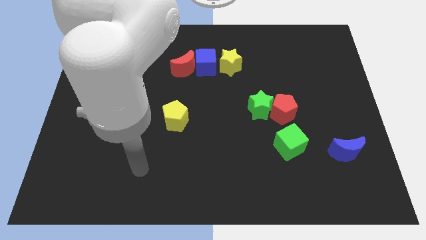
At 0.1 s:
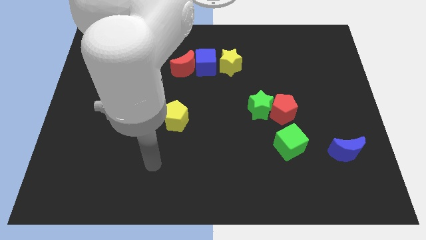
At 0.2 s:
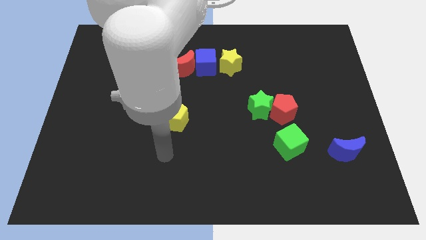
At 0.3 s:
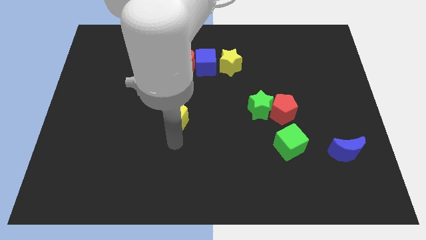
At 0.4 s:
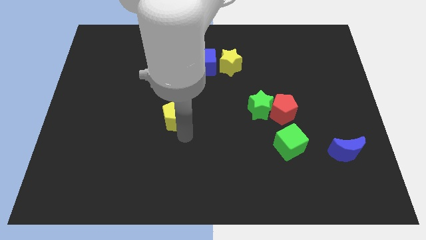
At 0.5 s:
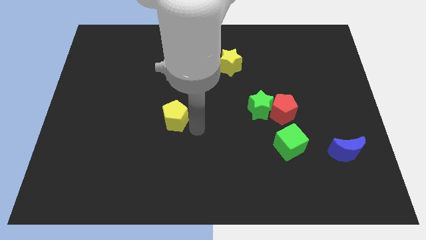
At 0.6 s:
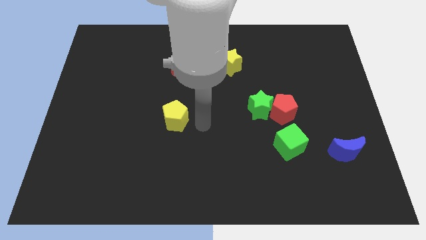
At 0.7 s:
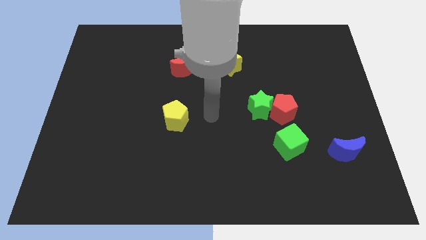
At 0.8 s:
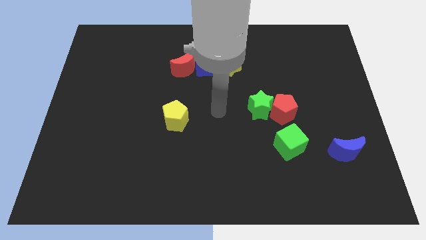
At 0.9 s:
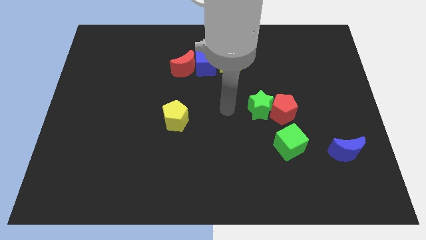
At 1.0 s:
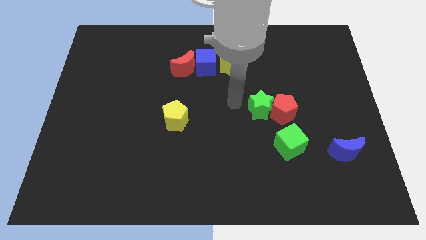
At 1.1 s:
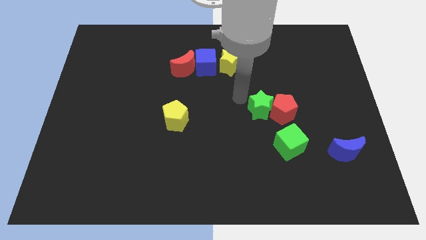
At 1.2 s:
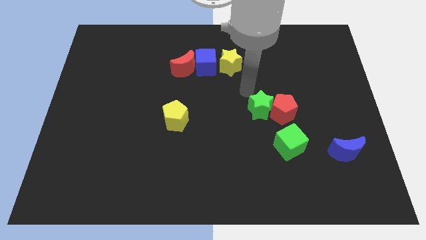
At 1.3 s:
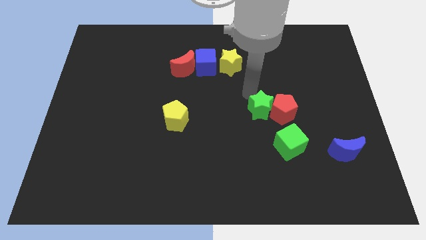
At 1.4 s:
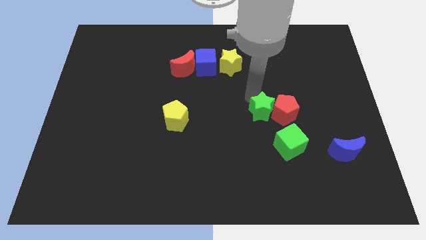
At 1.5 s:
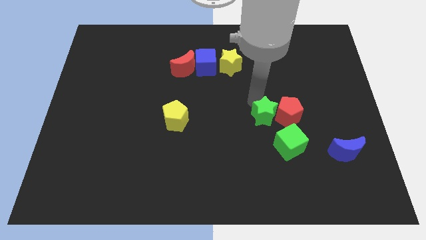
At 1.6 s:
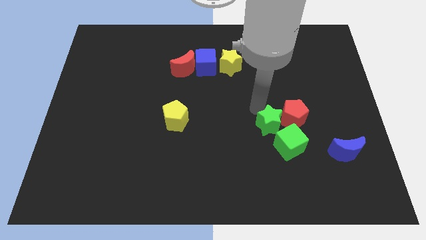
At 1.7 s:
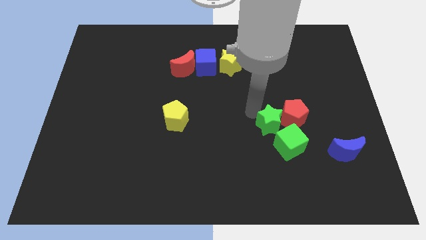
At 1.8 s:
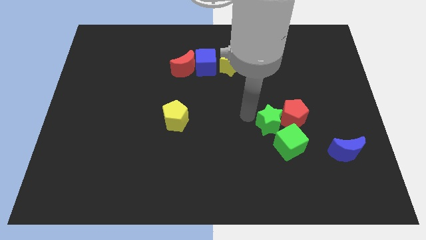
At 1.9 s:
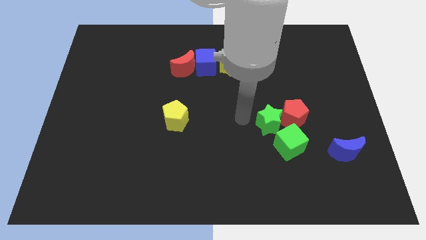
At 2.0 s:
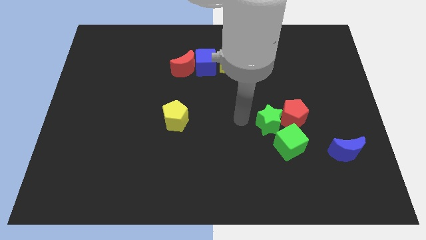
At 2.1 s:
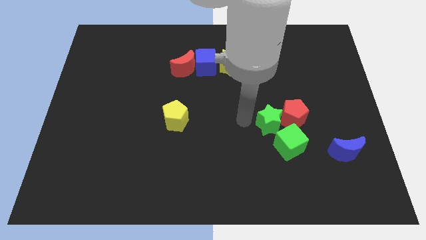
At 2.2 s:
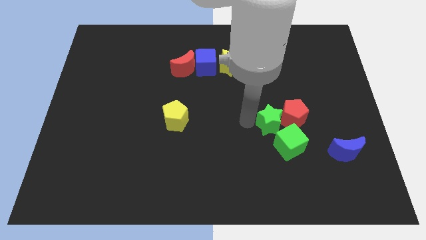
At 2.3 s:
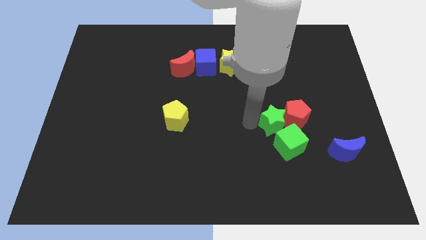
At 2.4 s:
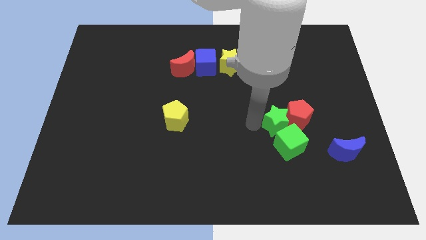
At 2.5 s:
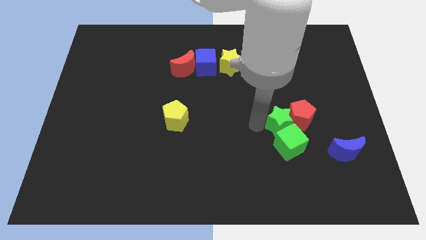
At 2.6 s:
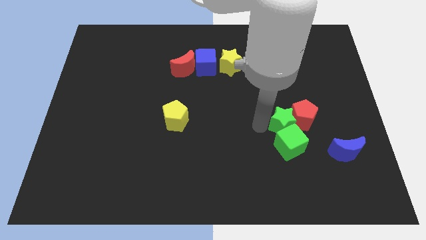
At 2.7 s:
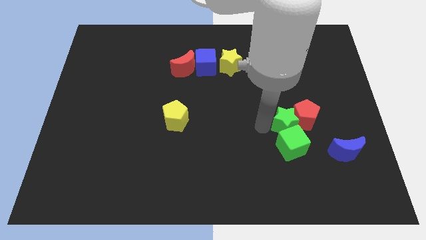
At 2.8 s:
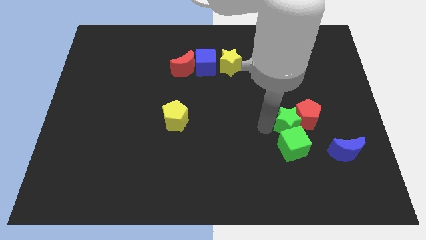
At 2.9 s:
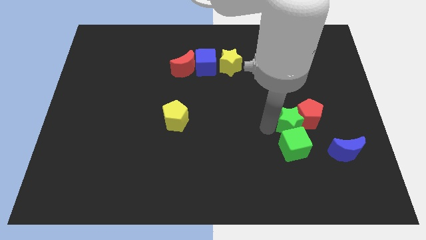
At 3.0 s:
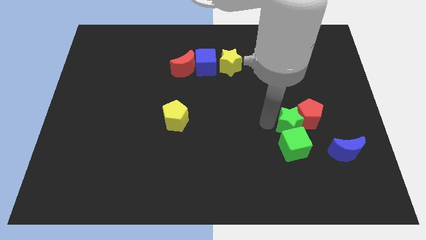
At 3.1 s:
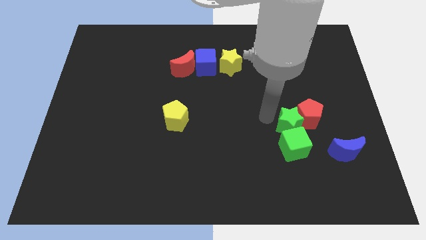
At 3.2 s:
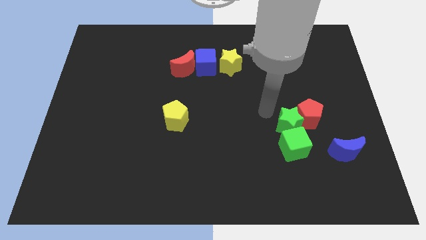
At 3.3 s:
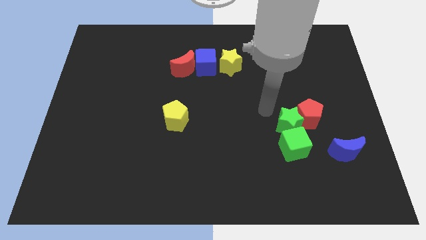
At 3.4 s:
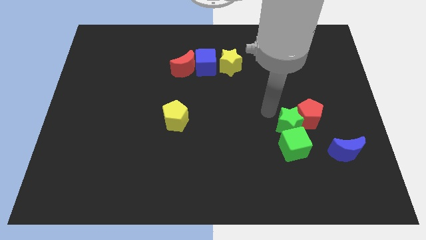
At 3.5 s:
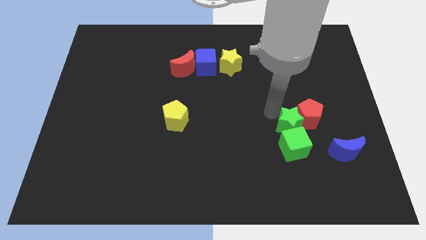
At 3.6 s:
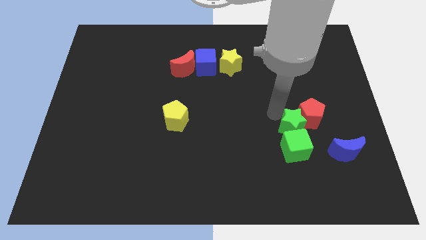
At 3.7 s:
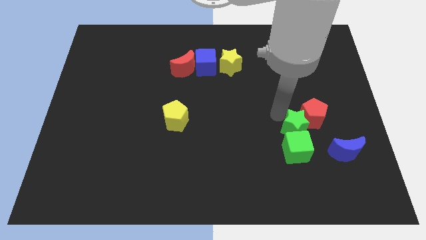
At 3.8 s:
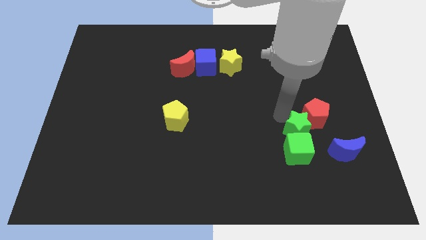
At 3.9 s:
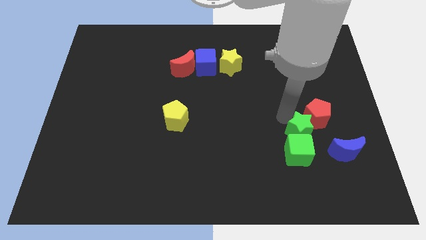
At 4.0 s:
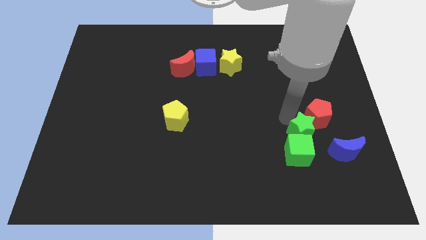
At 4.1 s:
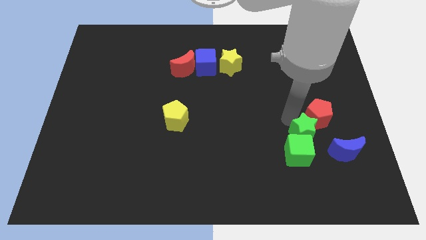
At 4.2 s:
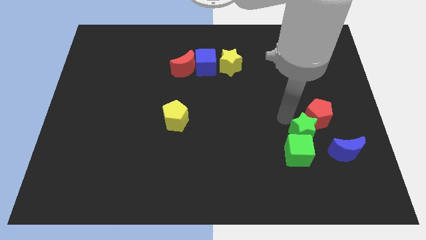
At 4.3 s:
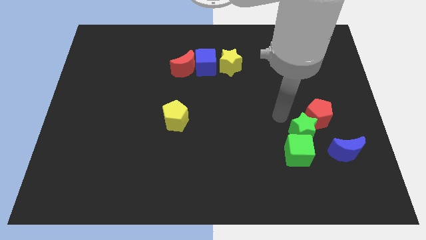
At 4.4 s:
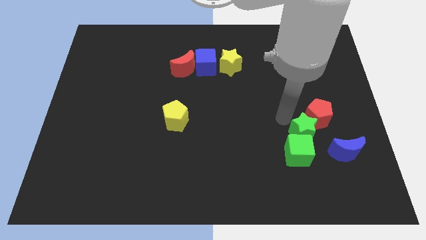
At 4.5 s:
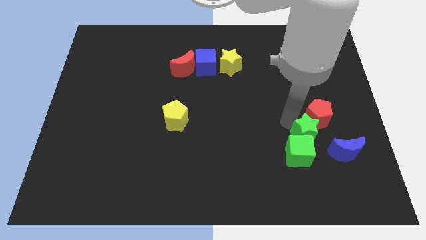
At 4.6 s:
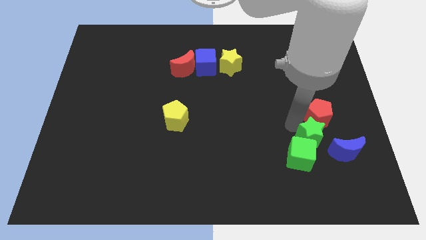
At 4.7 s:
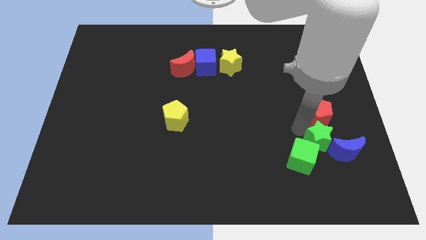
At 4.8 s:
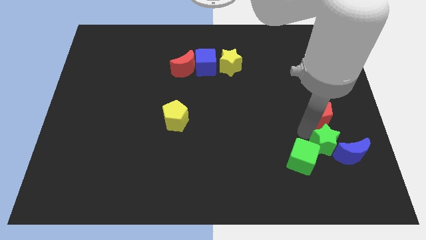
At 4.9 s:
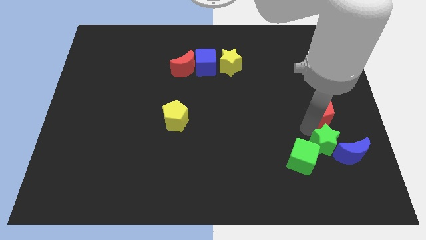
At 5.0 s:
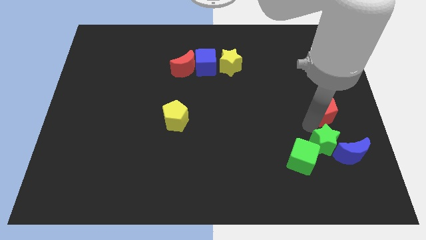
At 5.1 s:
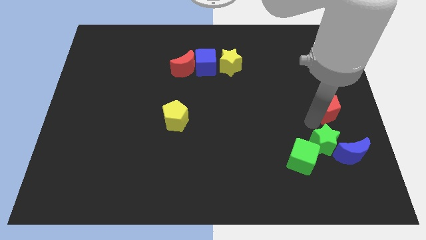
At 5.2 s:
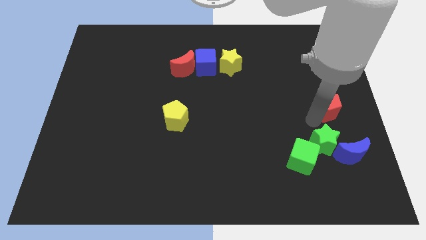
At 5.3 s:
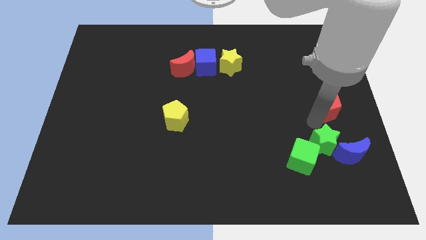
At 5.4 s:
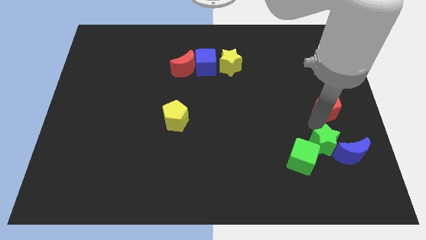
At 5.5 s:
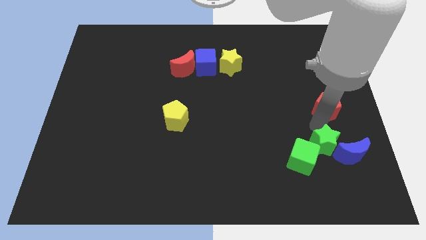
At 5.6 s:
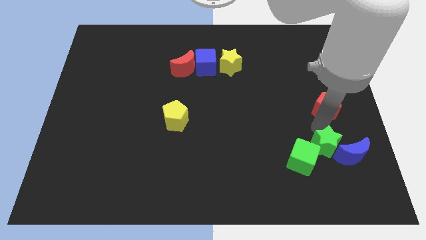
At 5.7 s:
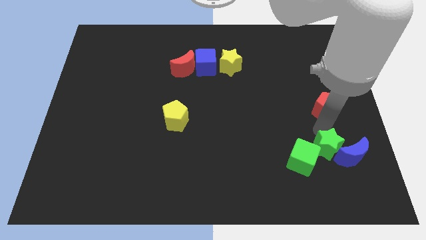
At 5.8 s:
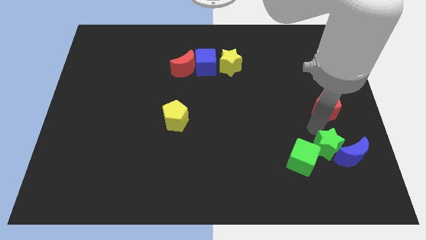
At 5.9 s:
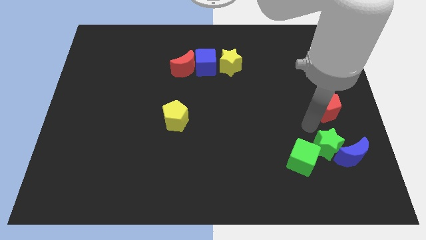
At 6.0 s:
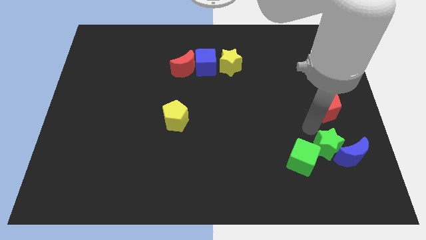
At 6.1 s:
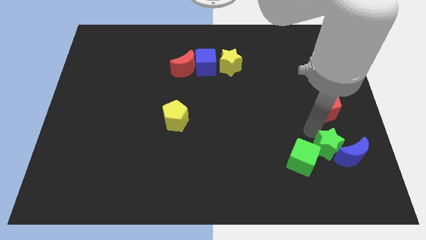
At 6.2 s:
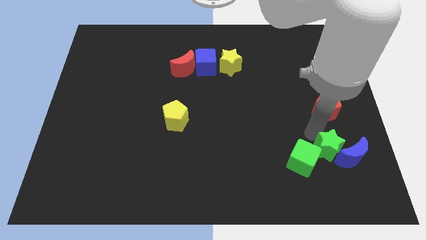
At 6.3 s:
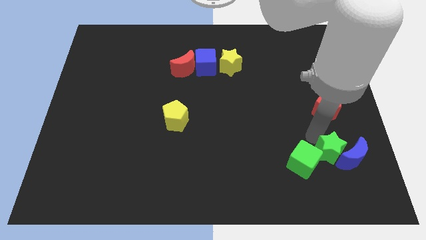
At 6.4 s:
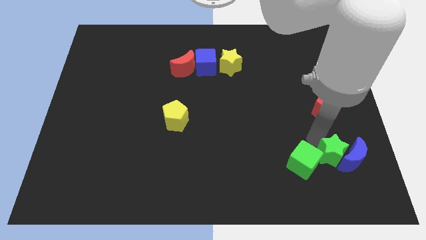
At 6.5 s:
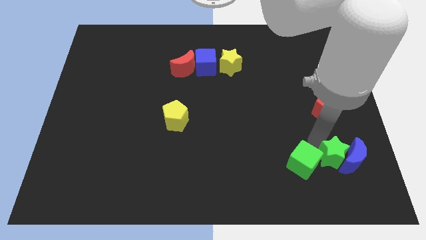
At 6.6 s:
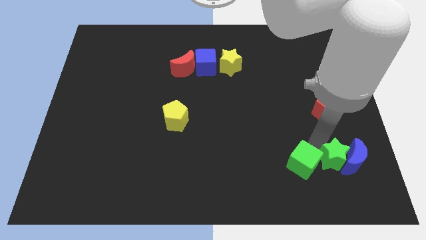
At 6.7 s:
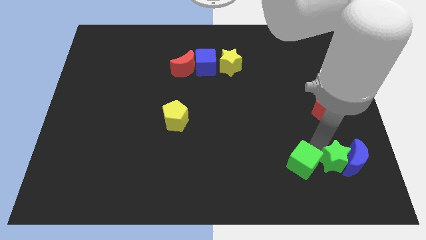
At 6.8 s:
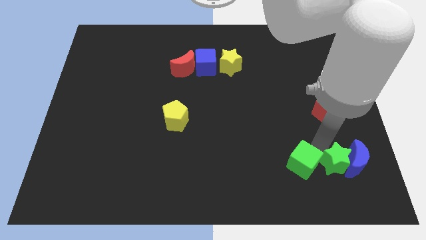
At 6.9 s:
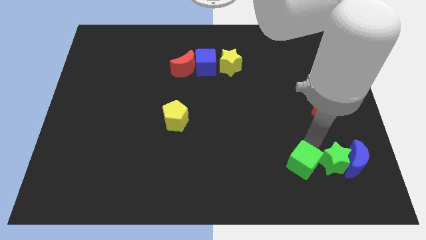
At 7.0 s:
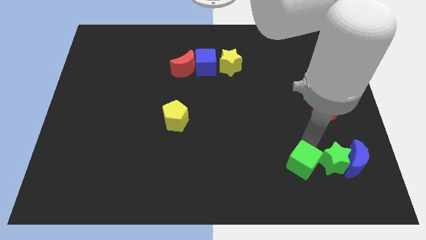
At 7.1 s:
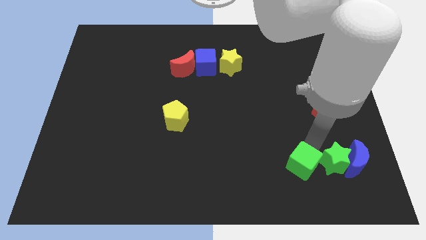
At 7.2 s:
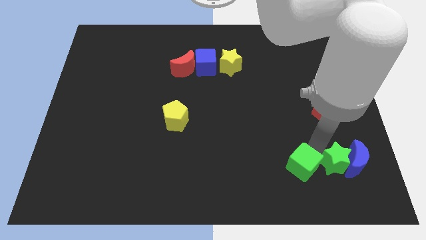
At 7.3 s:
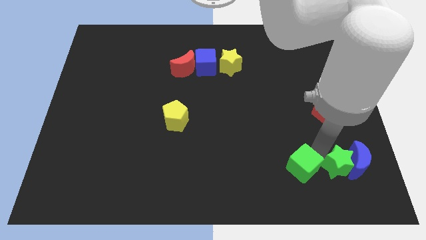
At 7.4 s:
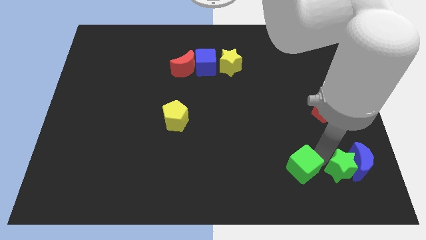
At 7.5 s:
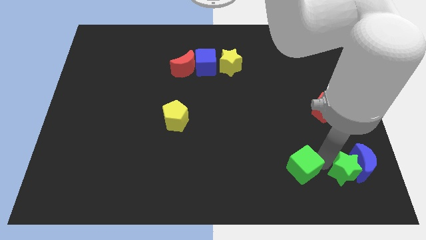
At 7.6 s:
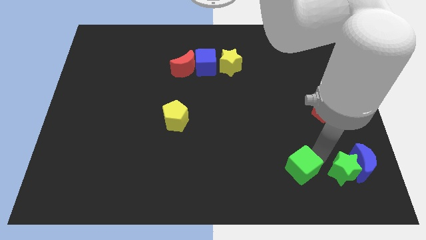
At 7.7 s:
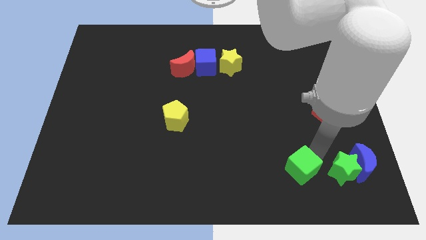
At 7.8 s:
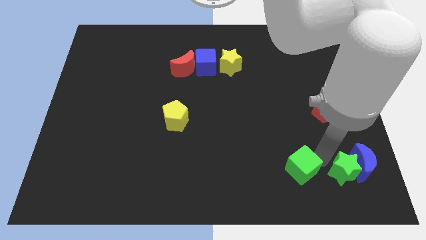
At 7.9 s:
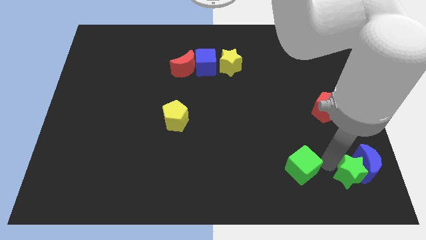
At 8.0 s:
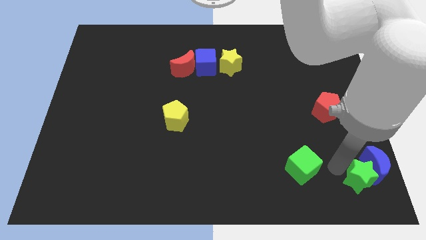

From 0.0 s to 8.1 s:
move the green star to the bottom right corner
